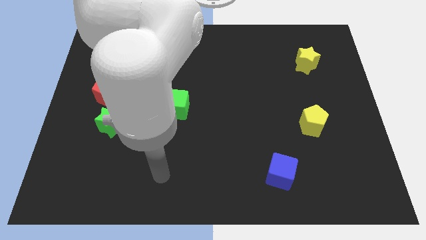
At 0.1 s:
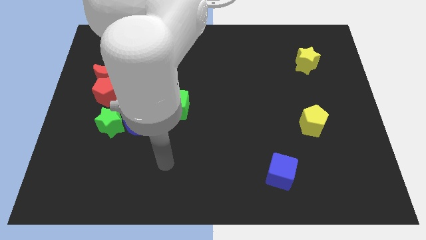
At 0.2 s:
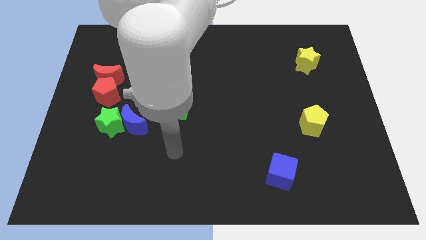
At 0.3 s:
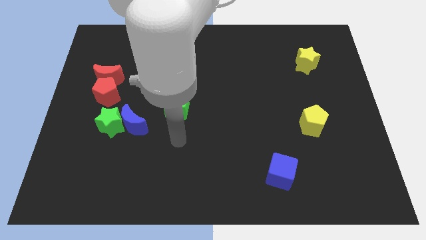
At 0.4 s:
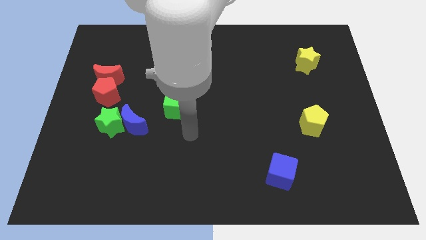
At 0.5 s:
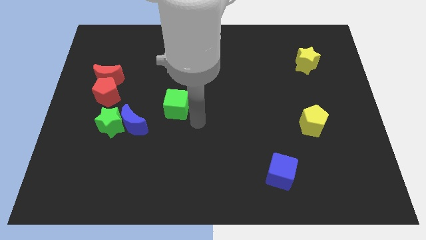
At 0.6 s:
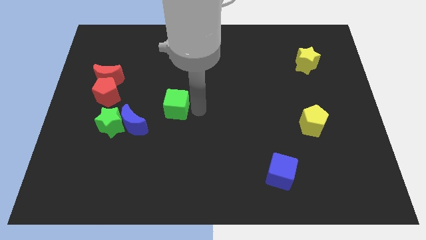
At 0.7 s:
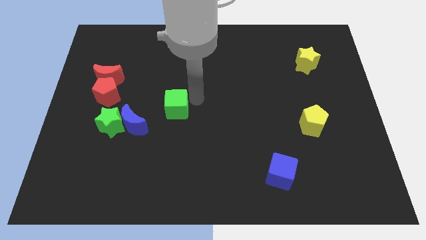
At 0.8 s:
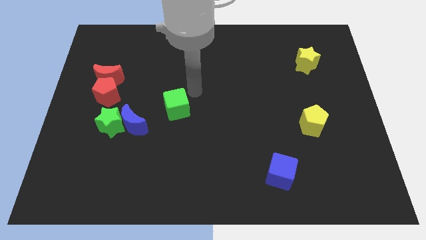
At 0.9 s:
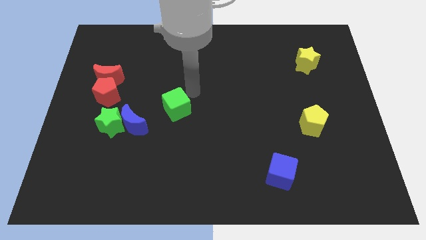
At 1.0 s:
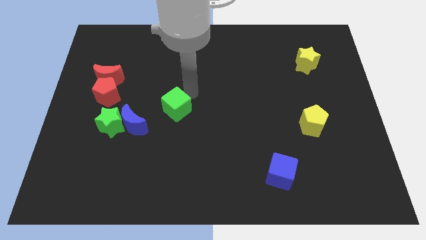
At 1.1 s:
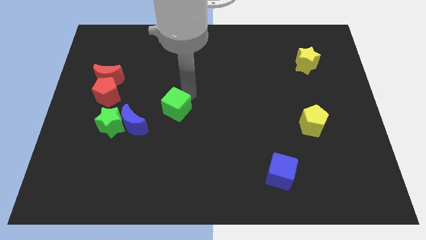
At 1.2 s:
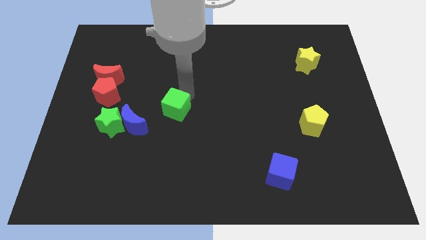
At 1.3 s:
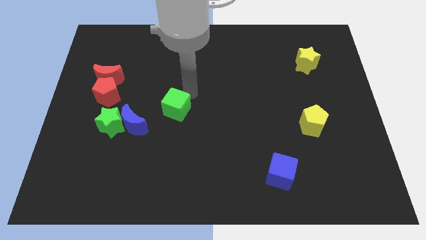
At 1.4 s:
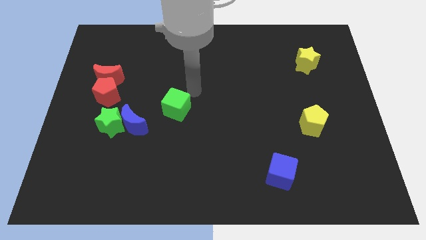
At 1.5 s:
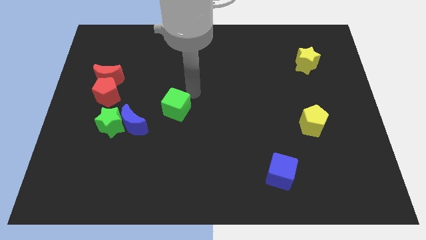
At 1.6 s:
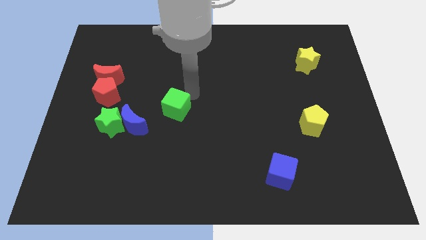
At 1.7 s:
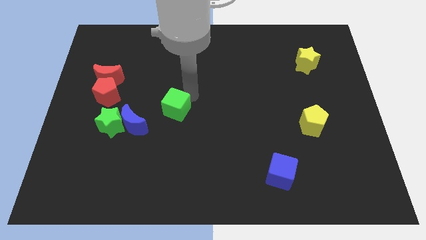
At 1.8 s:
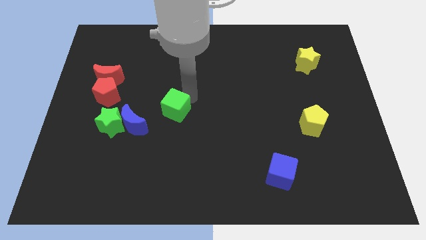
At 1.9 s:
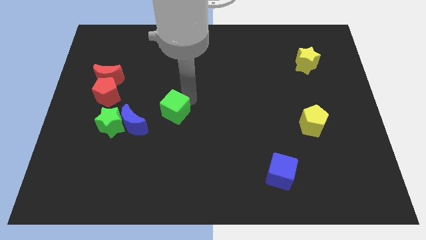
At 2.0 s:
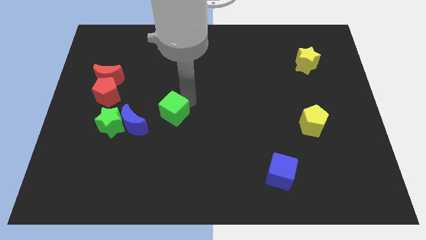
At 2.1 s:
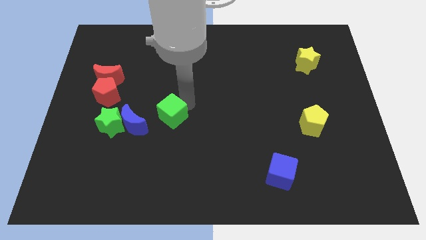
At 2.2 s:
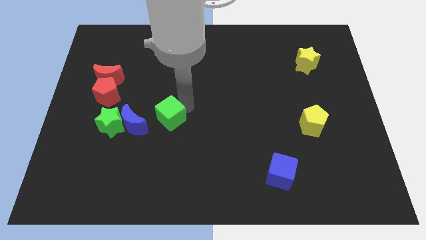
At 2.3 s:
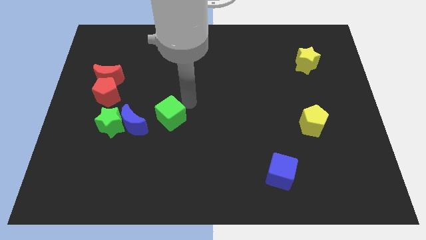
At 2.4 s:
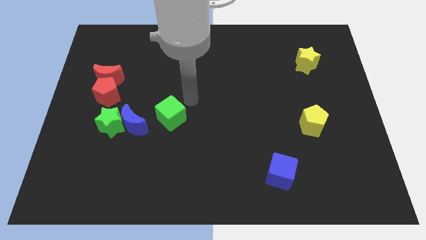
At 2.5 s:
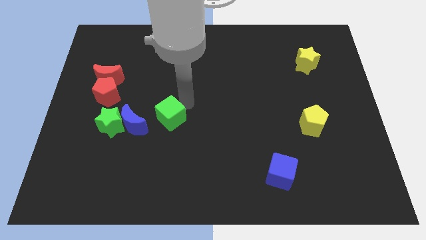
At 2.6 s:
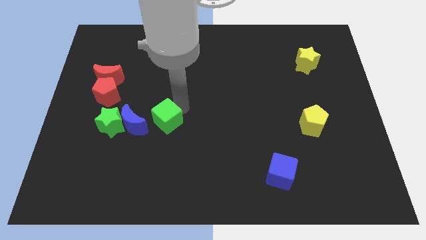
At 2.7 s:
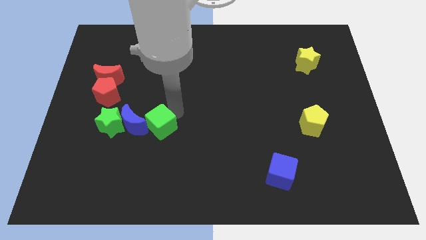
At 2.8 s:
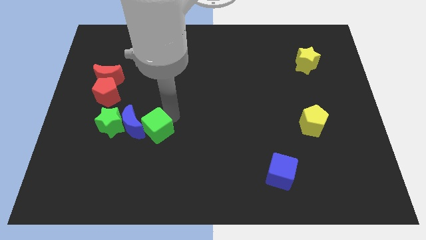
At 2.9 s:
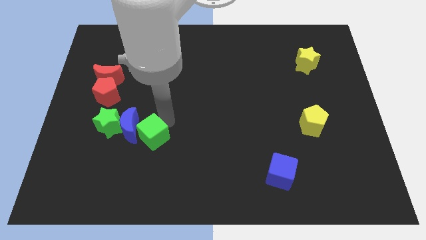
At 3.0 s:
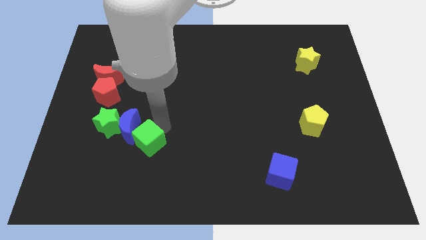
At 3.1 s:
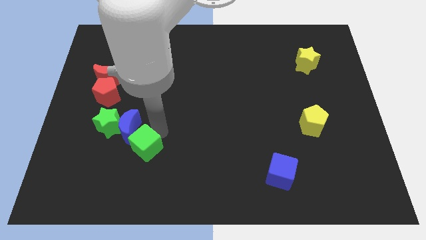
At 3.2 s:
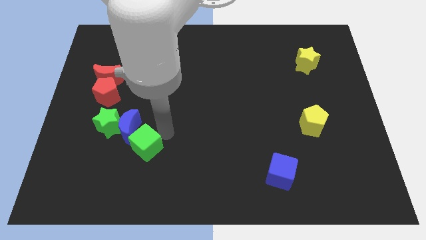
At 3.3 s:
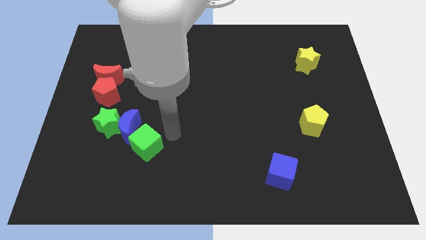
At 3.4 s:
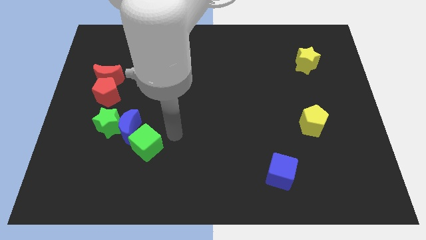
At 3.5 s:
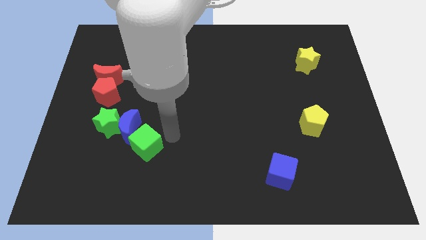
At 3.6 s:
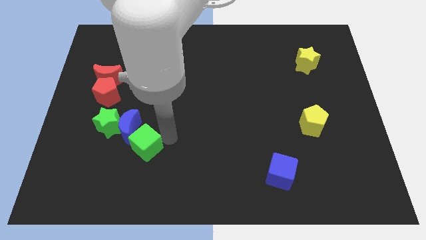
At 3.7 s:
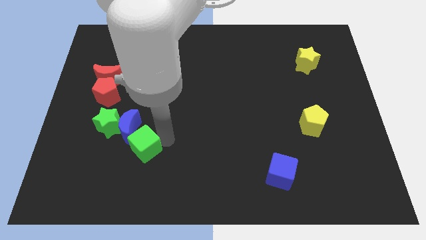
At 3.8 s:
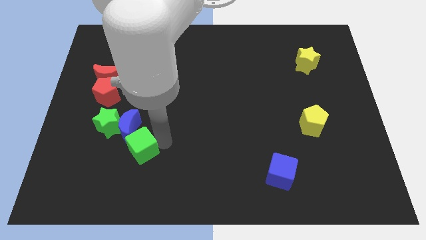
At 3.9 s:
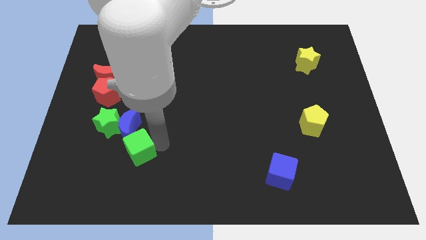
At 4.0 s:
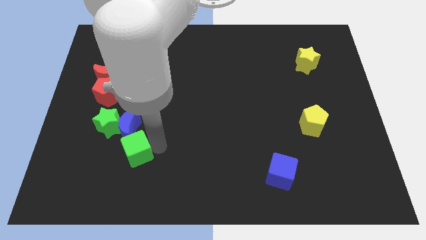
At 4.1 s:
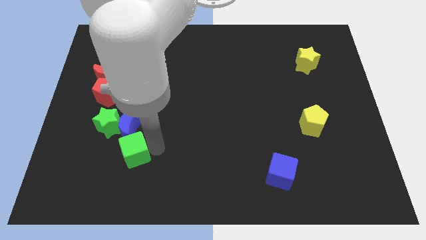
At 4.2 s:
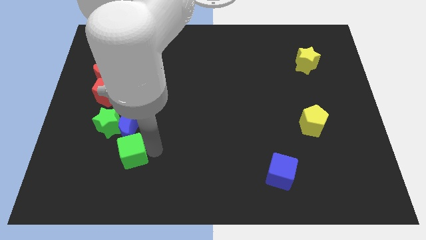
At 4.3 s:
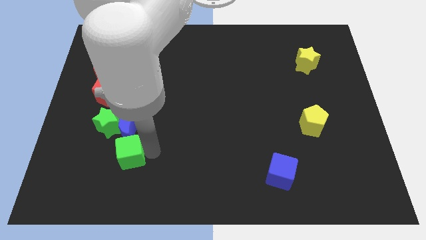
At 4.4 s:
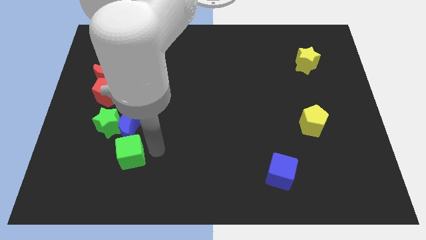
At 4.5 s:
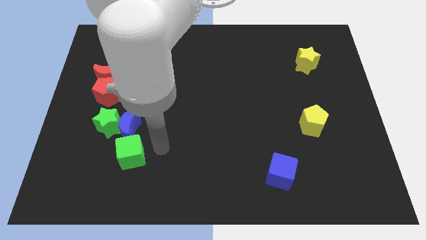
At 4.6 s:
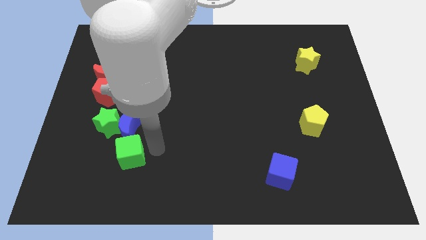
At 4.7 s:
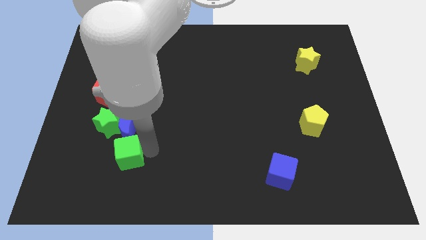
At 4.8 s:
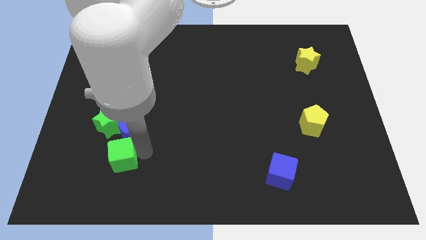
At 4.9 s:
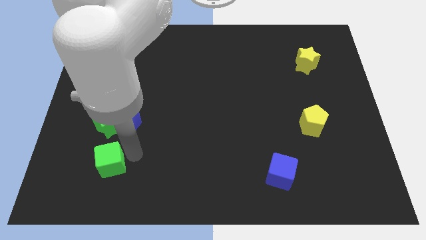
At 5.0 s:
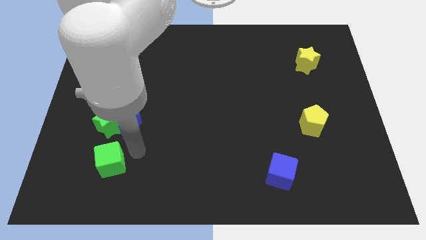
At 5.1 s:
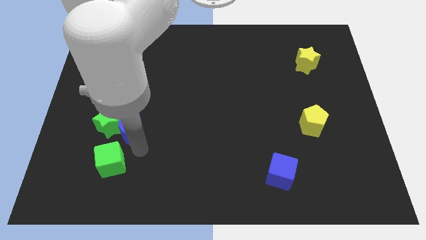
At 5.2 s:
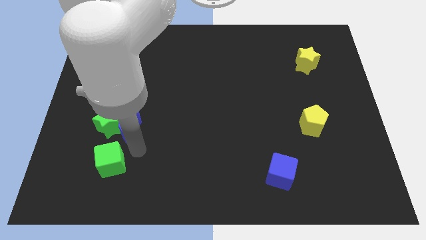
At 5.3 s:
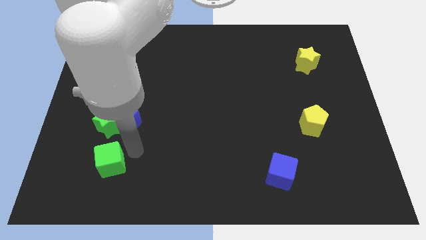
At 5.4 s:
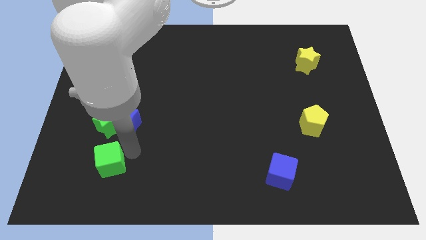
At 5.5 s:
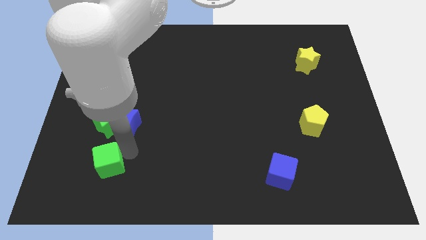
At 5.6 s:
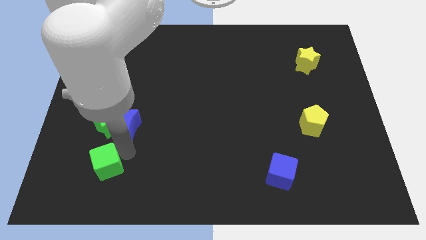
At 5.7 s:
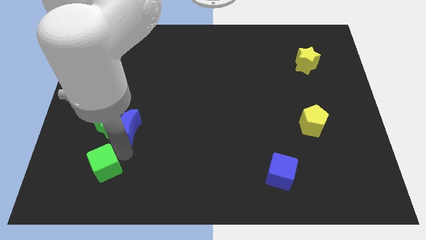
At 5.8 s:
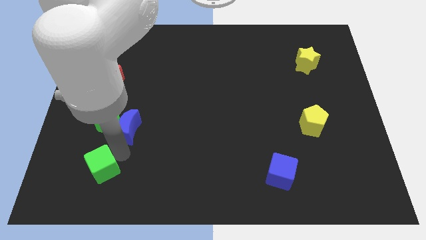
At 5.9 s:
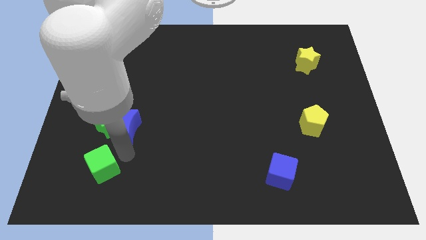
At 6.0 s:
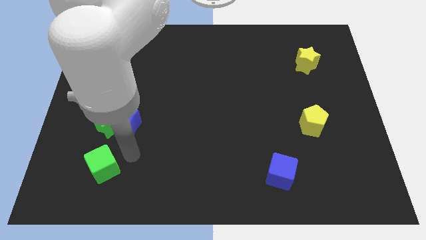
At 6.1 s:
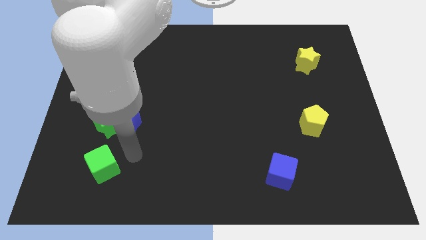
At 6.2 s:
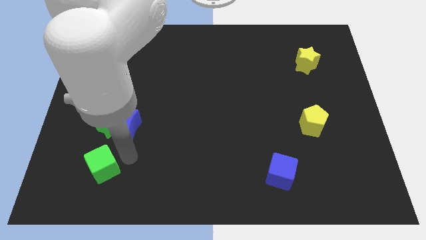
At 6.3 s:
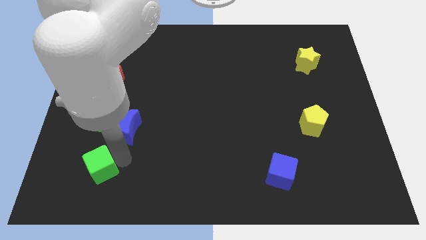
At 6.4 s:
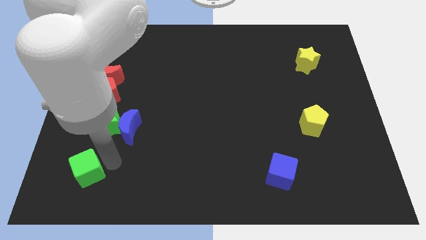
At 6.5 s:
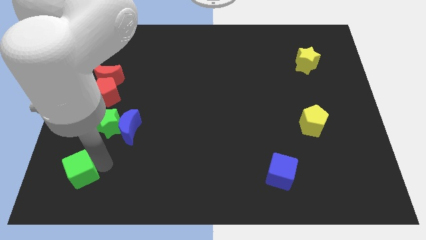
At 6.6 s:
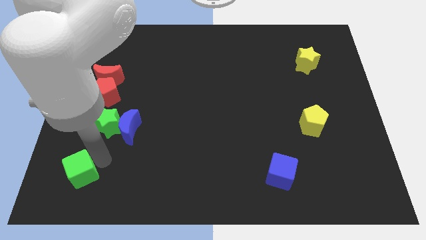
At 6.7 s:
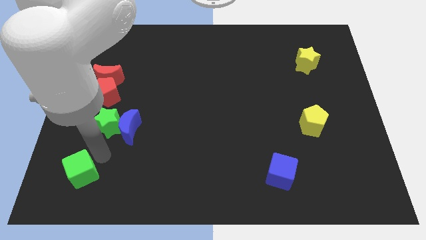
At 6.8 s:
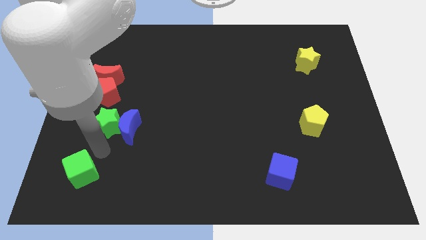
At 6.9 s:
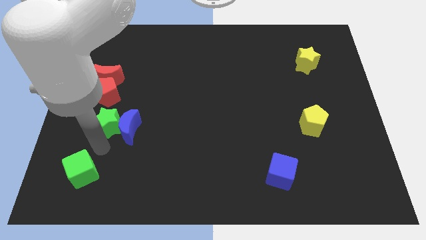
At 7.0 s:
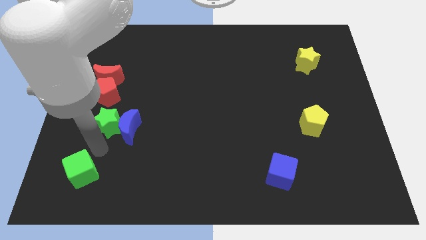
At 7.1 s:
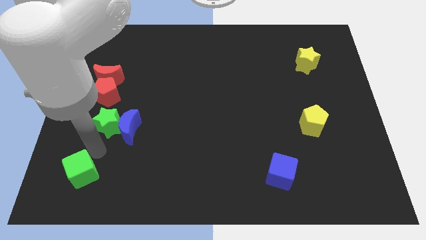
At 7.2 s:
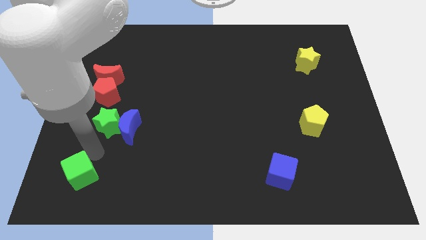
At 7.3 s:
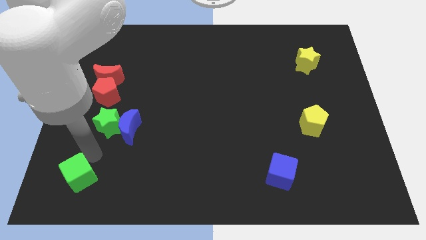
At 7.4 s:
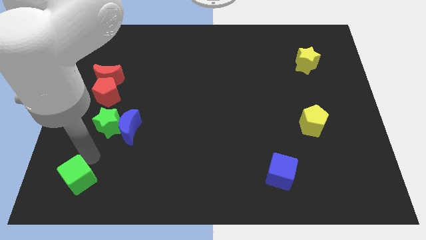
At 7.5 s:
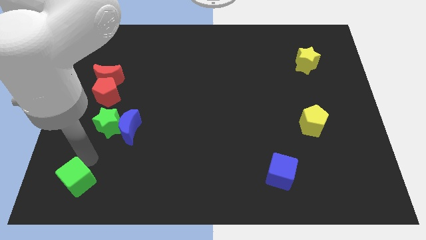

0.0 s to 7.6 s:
put the green cube to the bottom left of the board

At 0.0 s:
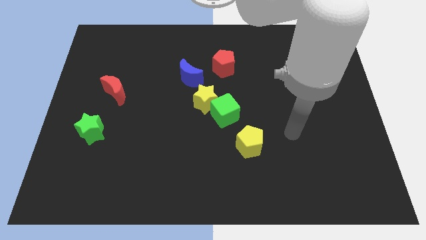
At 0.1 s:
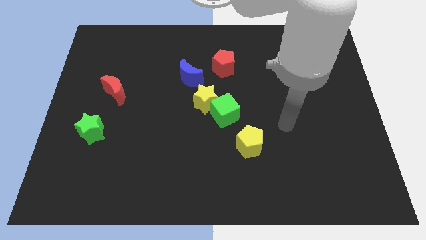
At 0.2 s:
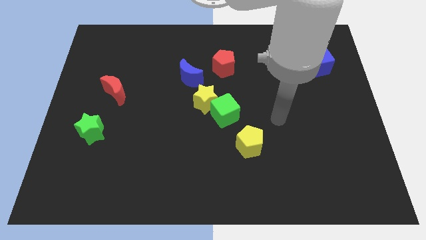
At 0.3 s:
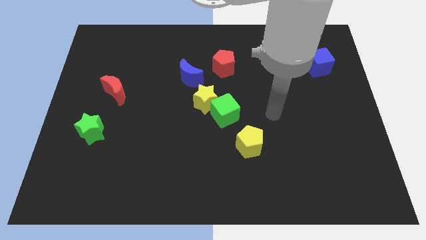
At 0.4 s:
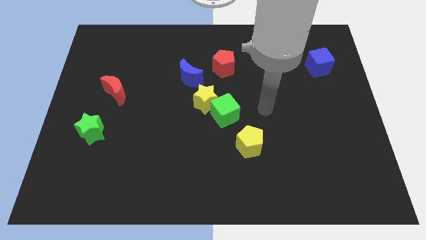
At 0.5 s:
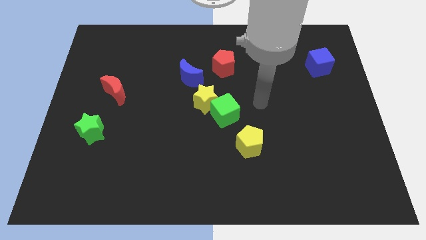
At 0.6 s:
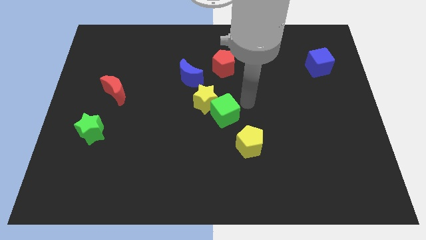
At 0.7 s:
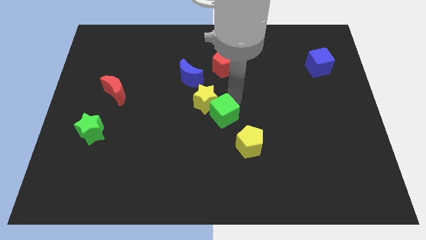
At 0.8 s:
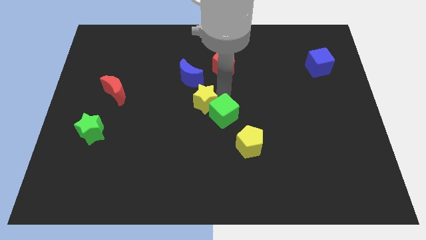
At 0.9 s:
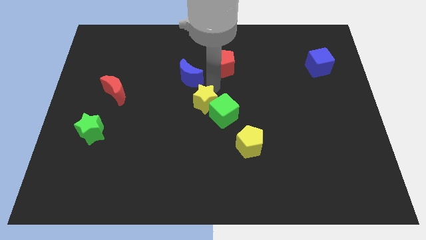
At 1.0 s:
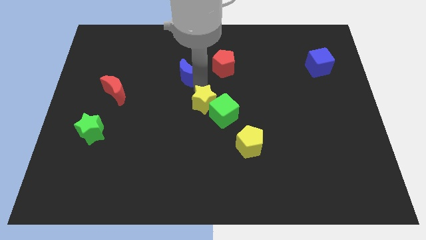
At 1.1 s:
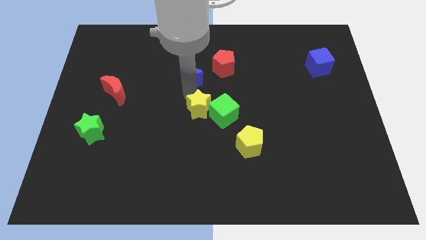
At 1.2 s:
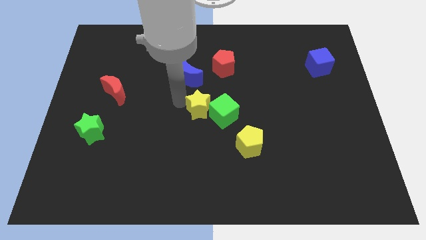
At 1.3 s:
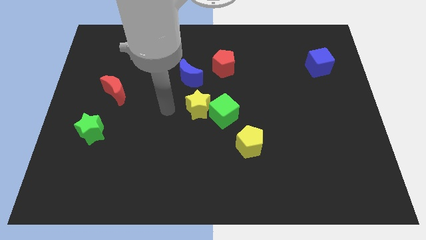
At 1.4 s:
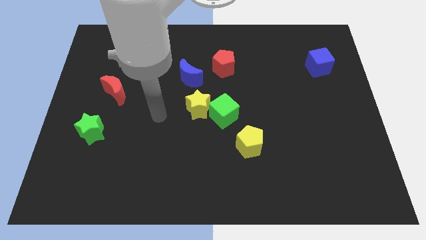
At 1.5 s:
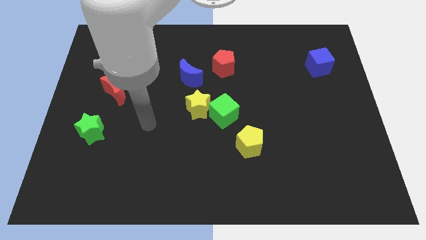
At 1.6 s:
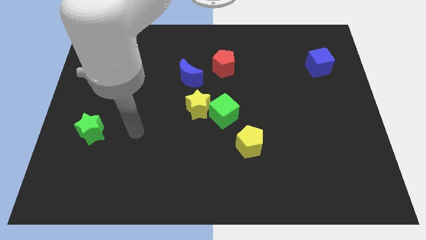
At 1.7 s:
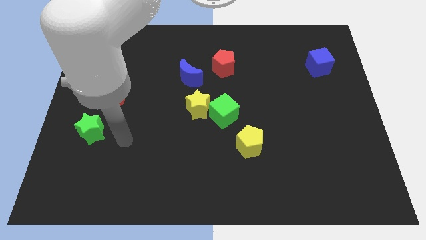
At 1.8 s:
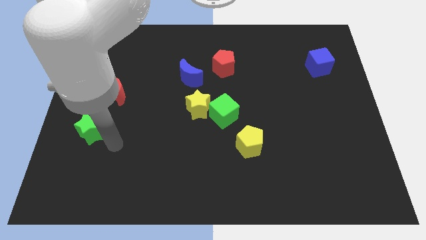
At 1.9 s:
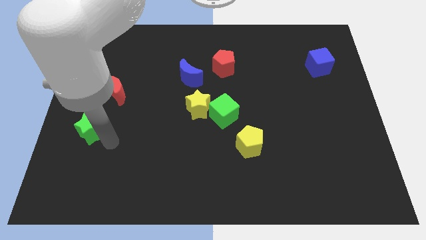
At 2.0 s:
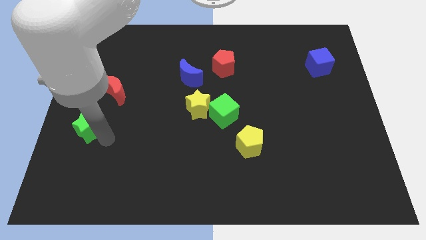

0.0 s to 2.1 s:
push the green star to the left side of the board
